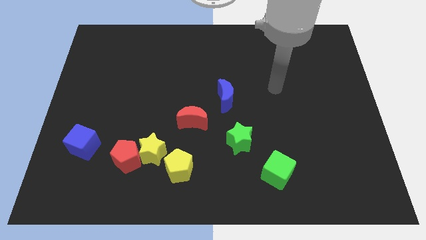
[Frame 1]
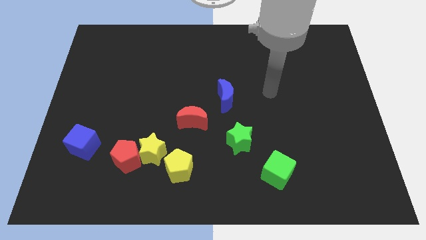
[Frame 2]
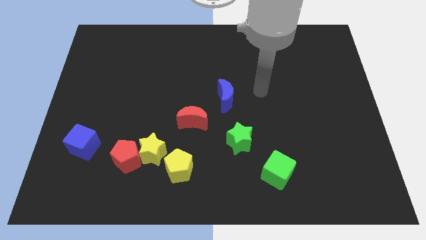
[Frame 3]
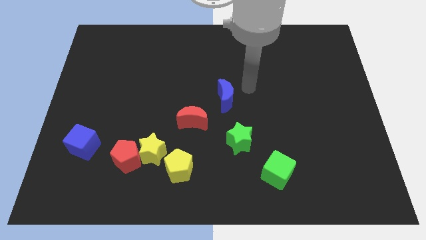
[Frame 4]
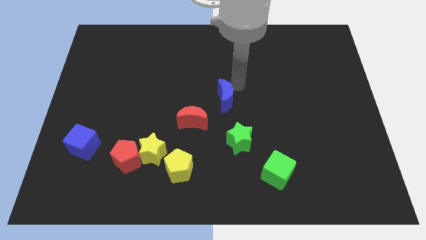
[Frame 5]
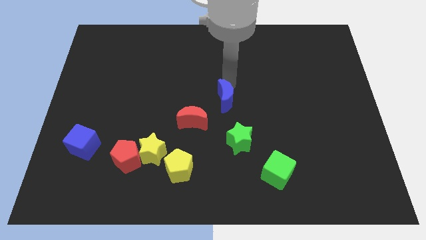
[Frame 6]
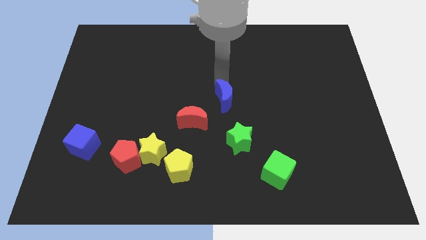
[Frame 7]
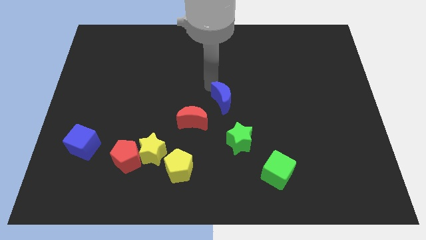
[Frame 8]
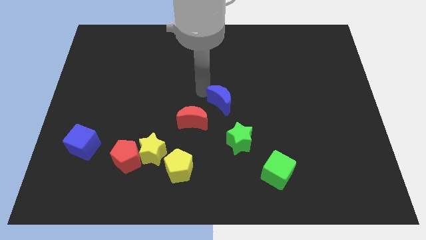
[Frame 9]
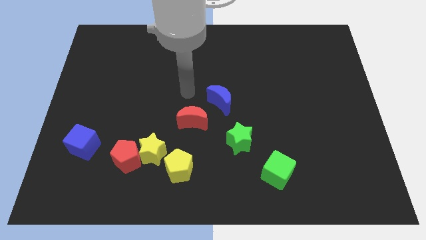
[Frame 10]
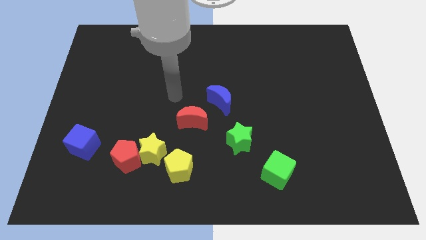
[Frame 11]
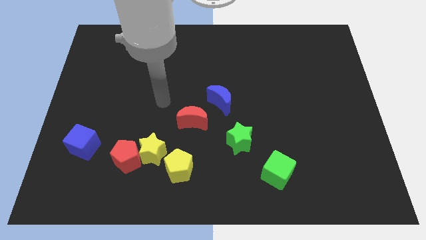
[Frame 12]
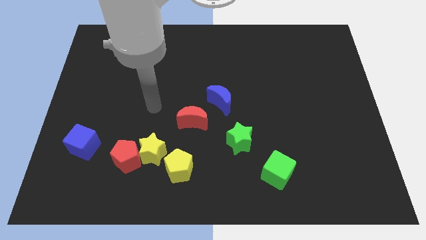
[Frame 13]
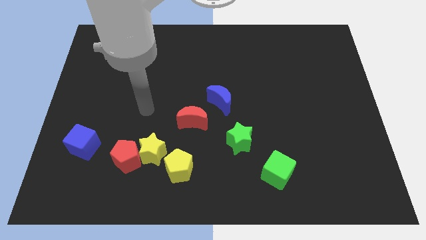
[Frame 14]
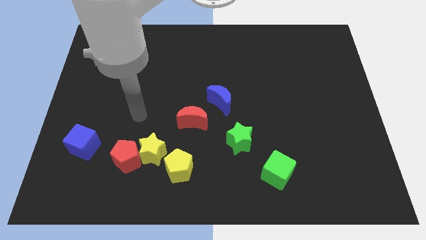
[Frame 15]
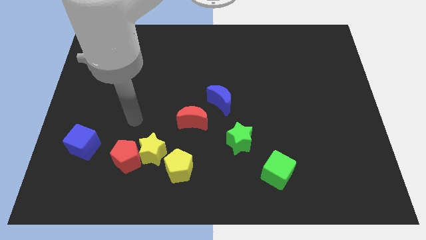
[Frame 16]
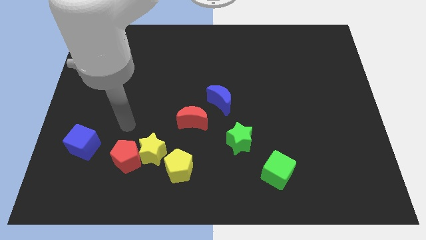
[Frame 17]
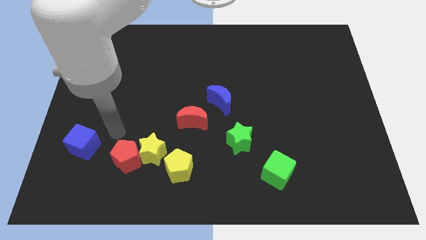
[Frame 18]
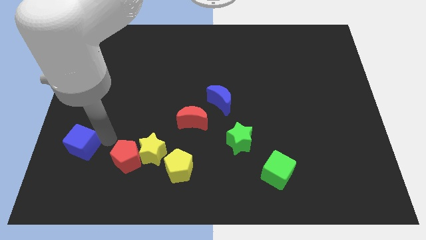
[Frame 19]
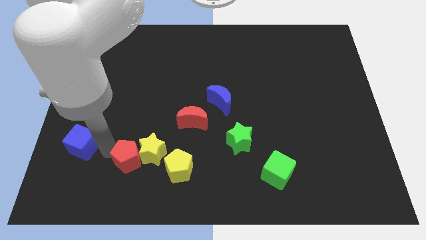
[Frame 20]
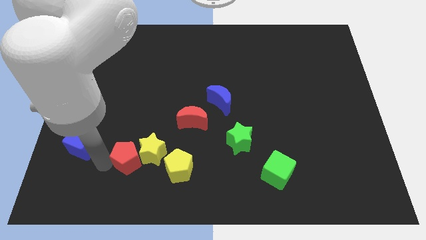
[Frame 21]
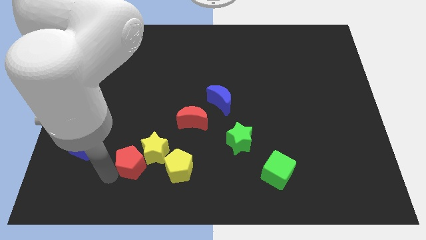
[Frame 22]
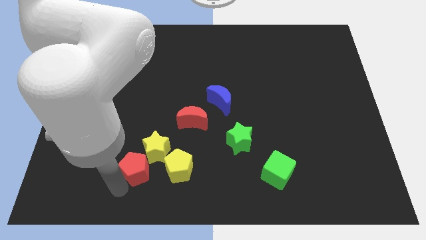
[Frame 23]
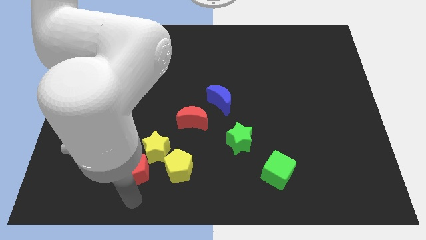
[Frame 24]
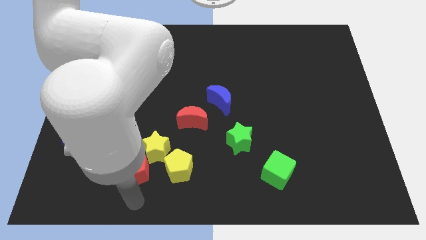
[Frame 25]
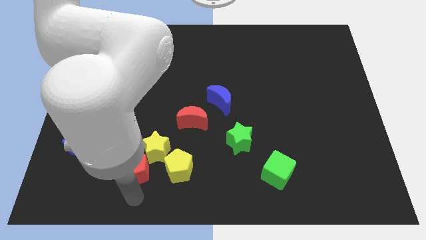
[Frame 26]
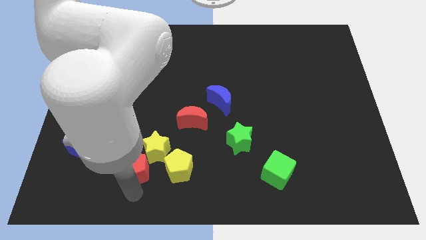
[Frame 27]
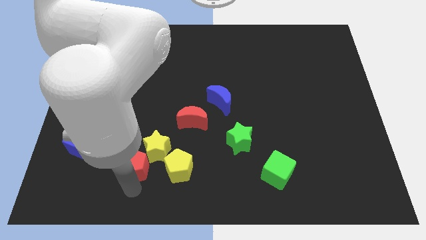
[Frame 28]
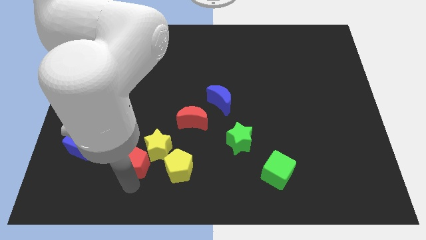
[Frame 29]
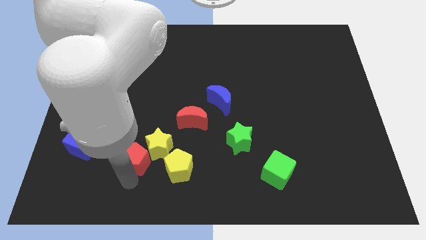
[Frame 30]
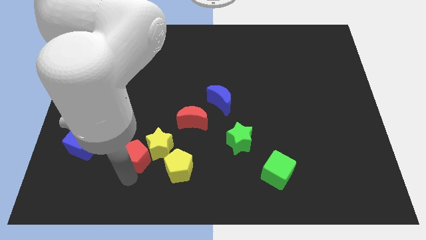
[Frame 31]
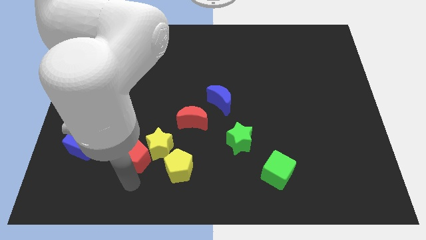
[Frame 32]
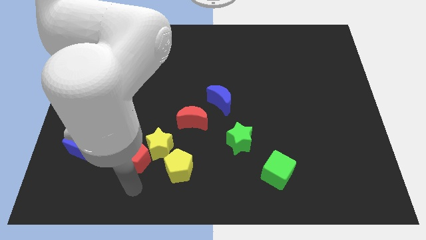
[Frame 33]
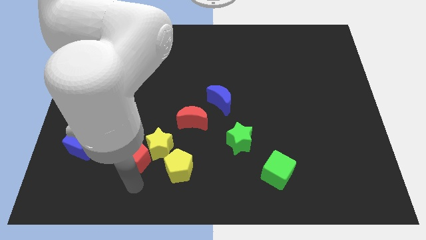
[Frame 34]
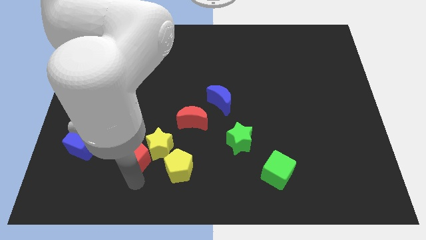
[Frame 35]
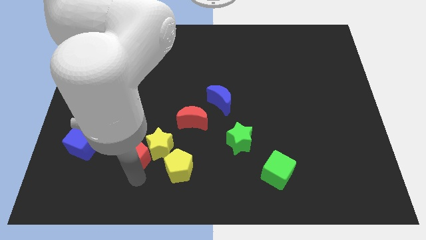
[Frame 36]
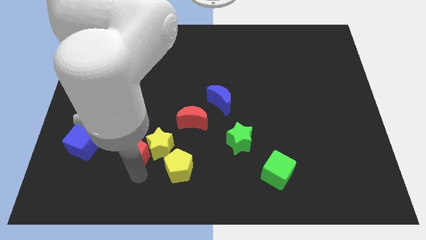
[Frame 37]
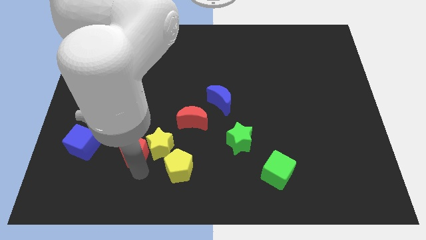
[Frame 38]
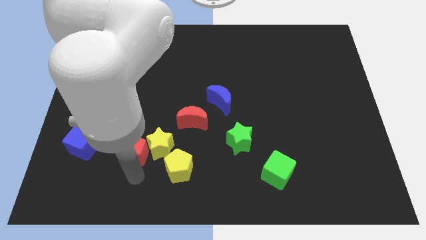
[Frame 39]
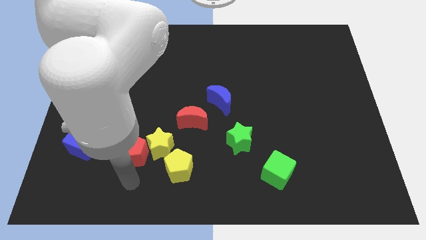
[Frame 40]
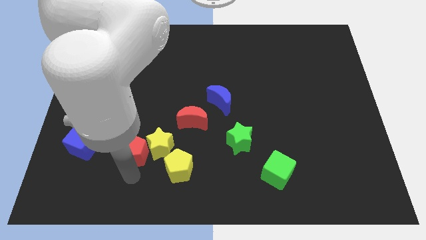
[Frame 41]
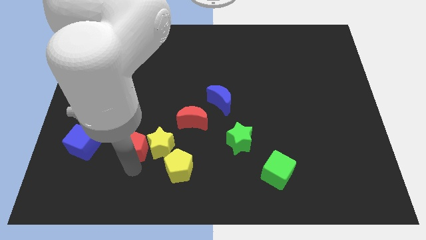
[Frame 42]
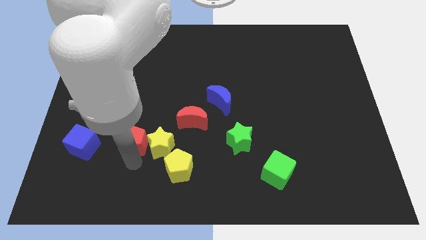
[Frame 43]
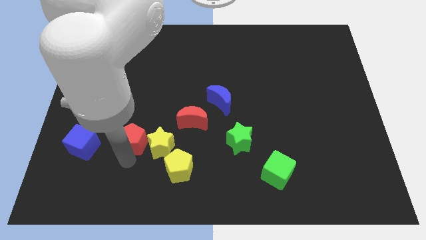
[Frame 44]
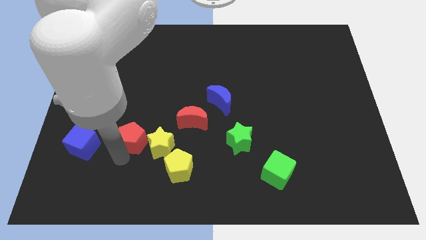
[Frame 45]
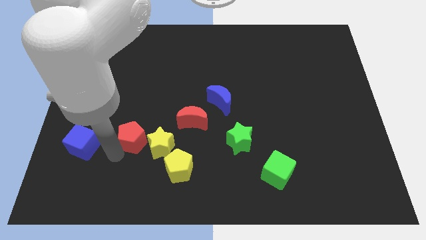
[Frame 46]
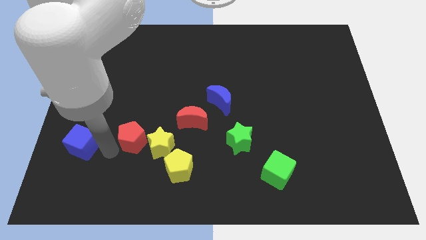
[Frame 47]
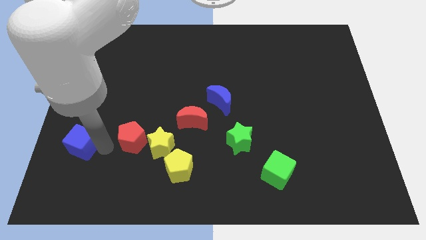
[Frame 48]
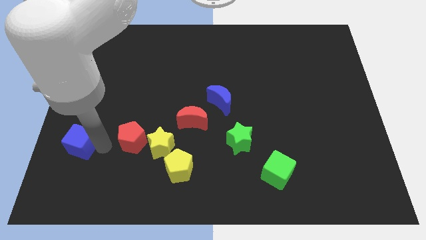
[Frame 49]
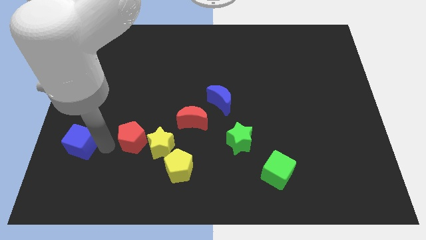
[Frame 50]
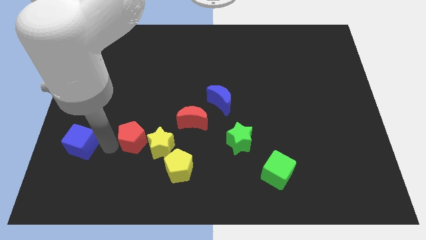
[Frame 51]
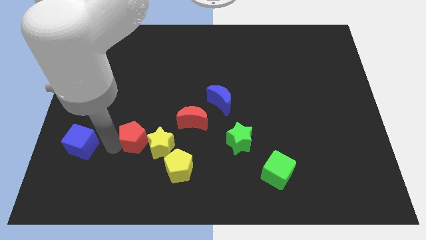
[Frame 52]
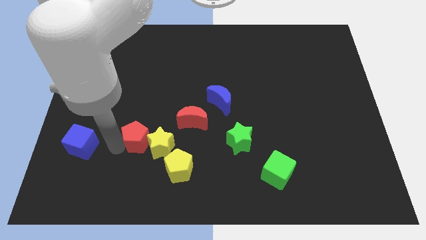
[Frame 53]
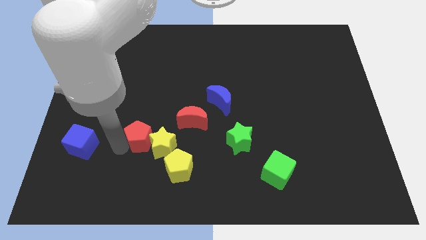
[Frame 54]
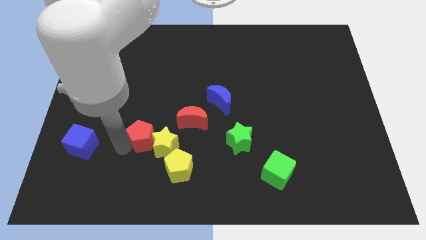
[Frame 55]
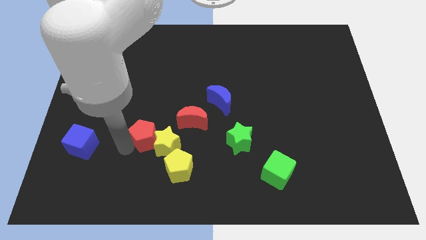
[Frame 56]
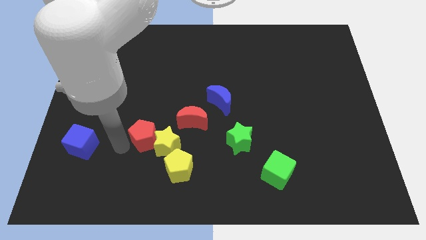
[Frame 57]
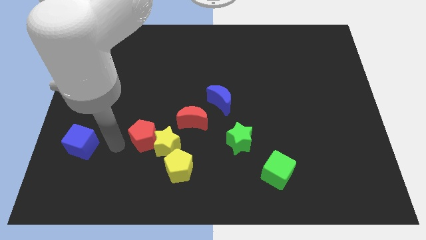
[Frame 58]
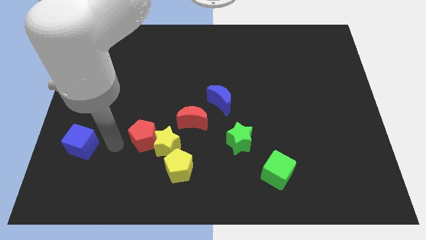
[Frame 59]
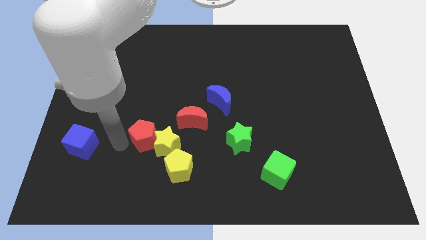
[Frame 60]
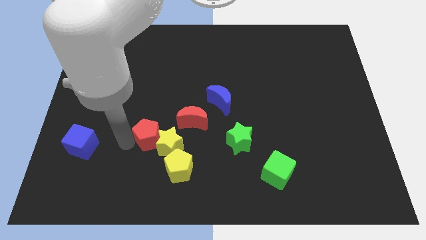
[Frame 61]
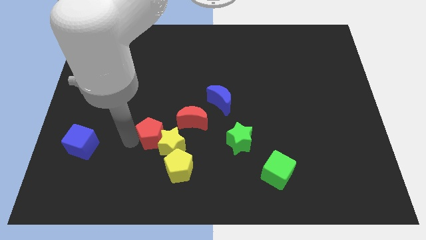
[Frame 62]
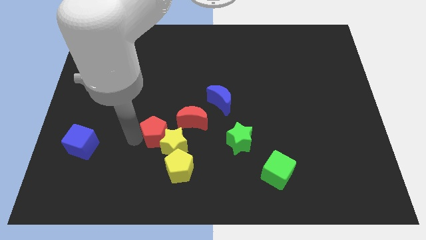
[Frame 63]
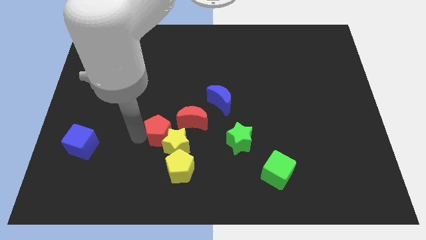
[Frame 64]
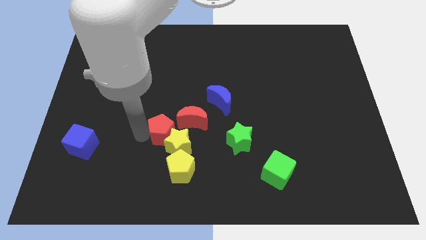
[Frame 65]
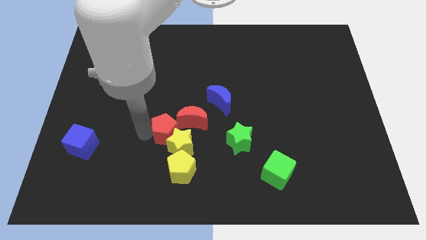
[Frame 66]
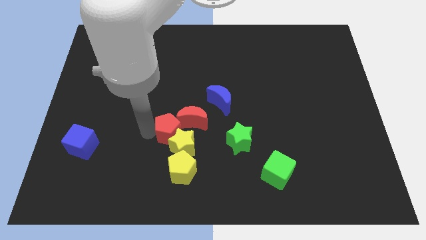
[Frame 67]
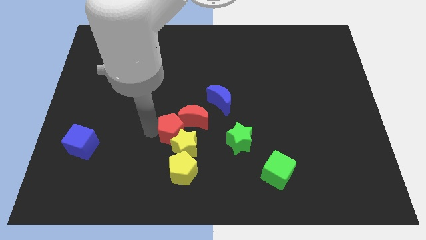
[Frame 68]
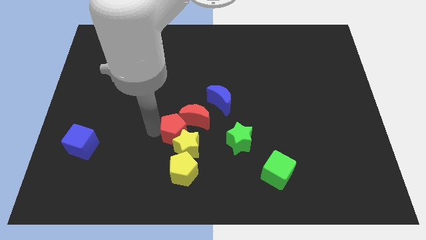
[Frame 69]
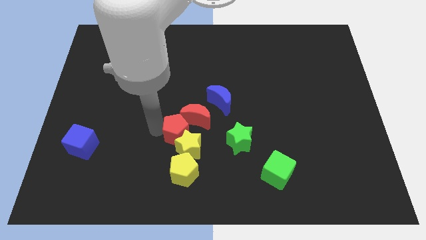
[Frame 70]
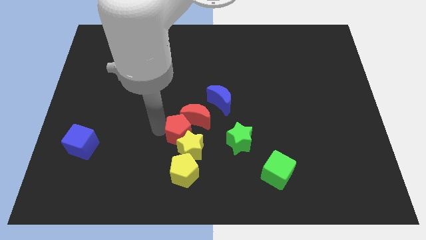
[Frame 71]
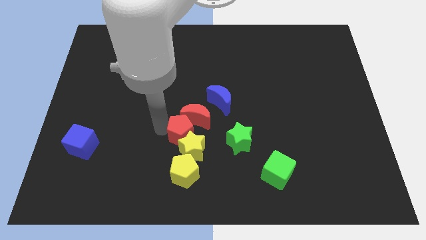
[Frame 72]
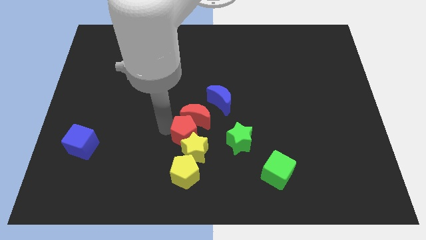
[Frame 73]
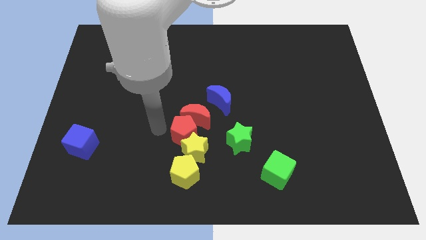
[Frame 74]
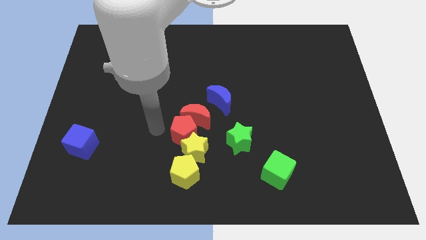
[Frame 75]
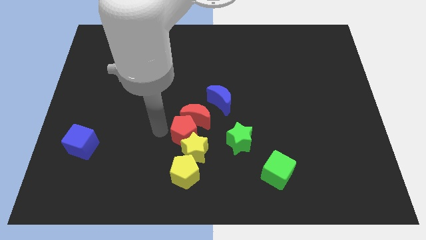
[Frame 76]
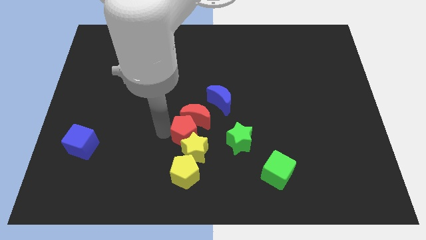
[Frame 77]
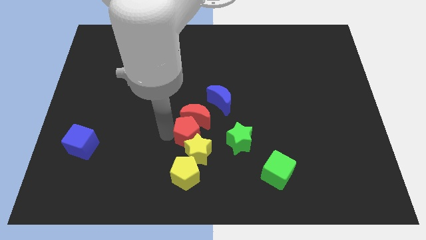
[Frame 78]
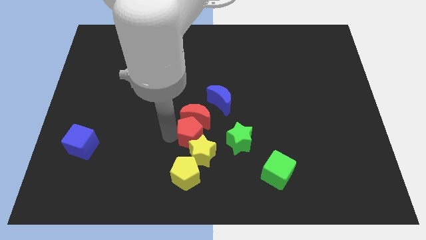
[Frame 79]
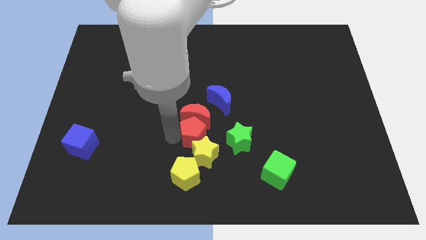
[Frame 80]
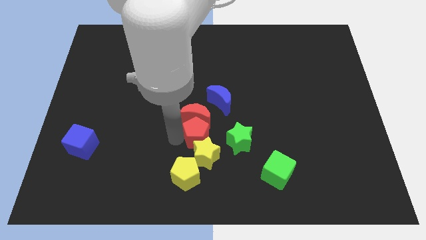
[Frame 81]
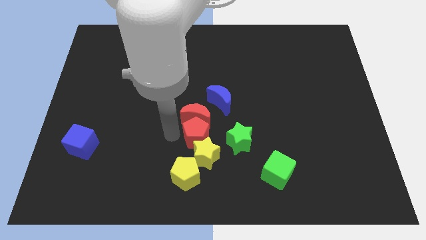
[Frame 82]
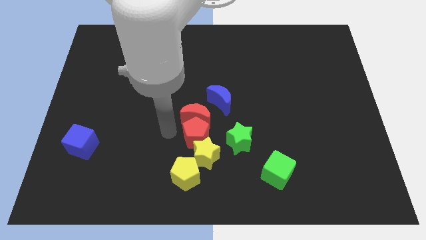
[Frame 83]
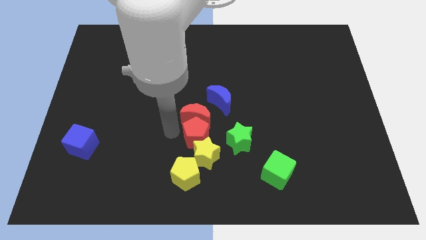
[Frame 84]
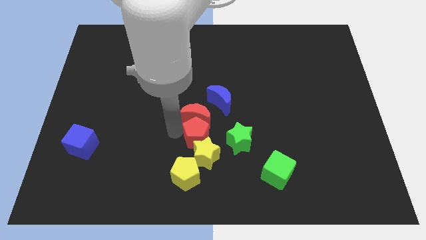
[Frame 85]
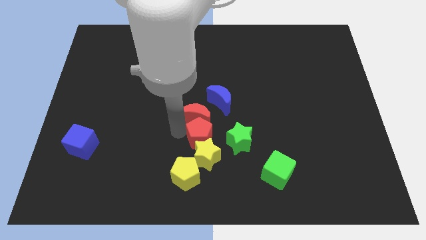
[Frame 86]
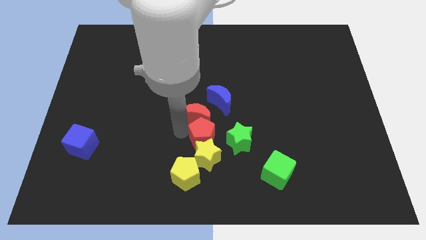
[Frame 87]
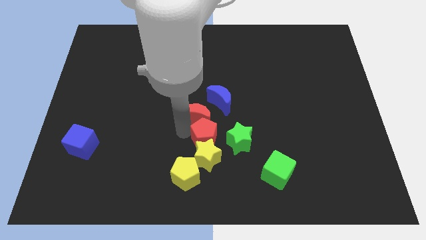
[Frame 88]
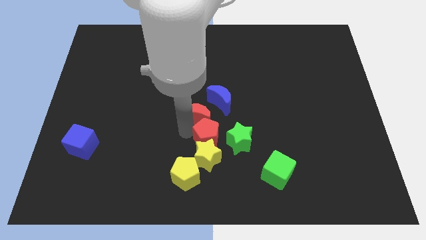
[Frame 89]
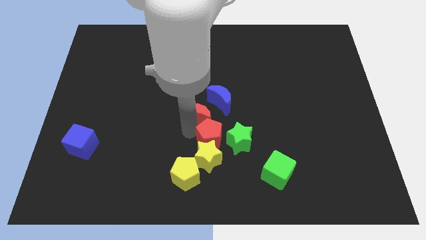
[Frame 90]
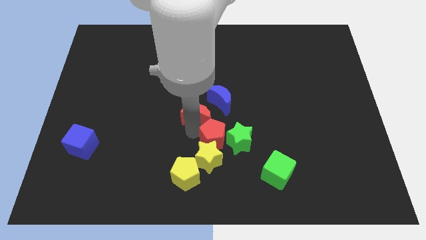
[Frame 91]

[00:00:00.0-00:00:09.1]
put the red pentagon to the green star
